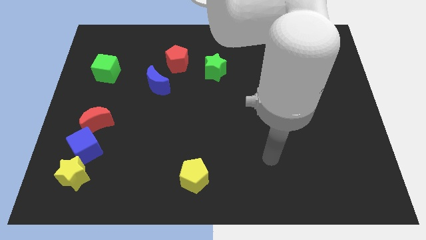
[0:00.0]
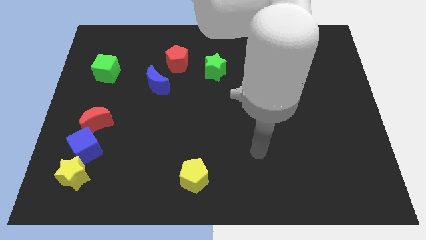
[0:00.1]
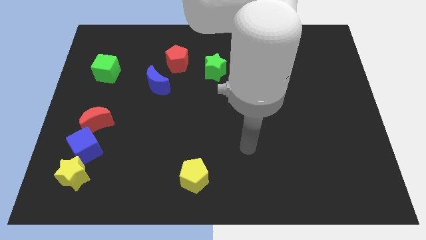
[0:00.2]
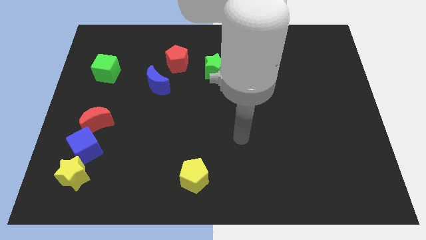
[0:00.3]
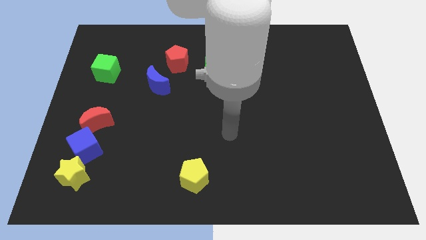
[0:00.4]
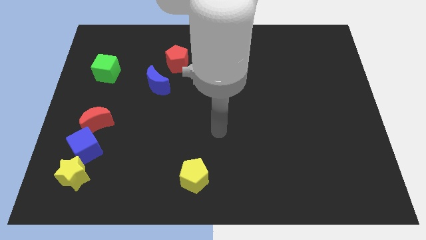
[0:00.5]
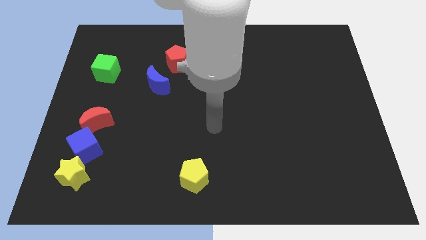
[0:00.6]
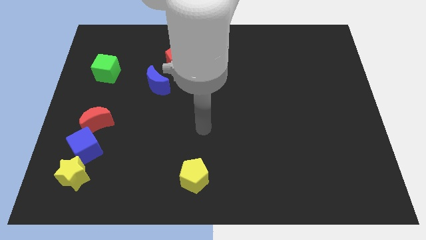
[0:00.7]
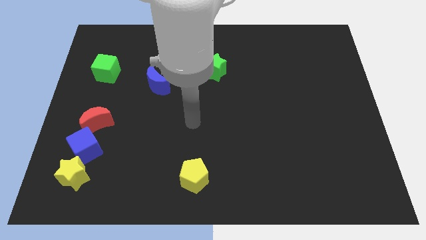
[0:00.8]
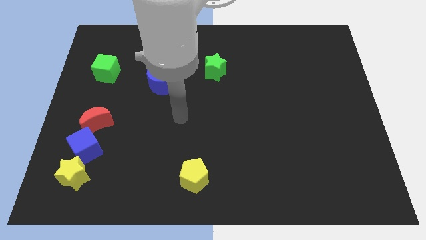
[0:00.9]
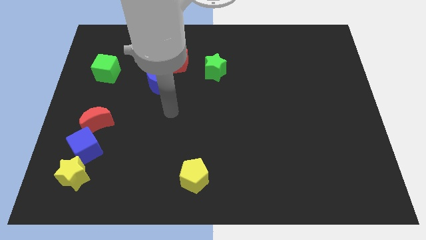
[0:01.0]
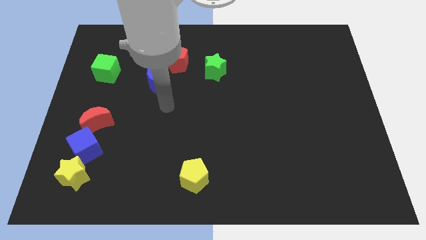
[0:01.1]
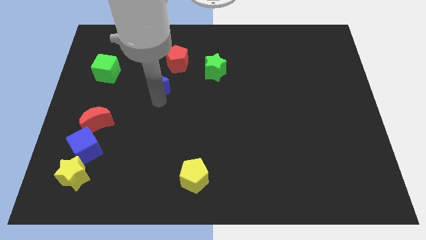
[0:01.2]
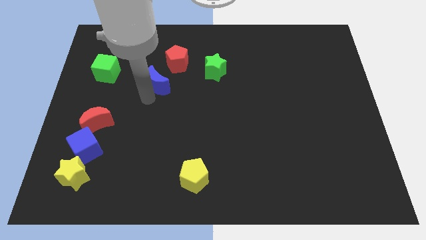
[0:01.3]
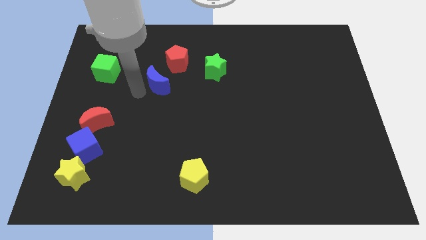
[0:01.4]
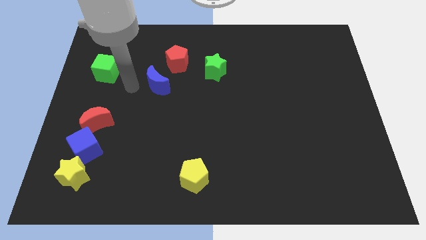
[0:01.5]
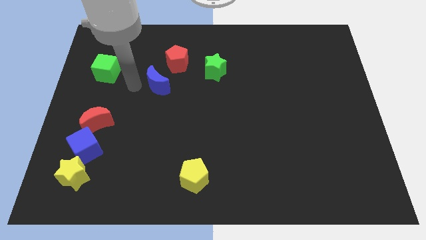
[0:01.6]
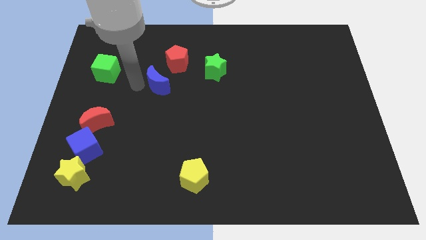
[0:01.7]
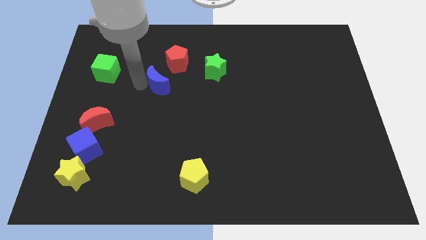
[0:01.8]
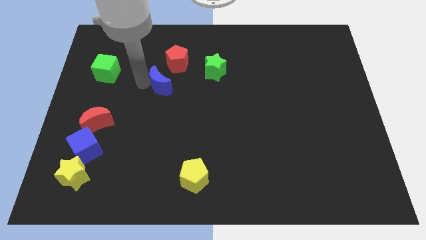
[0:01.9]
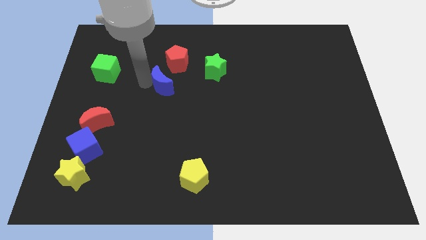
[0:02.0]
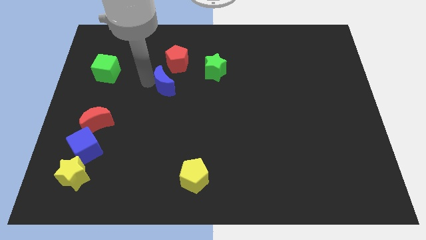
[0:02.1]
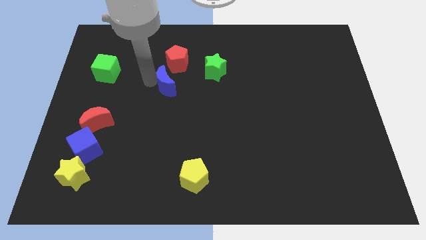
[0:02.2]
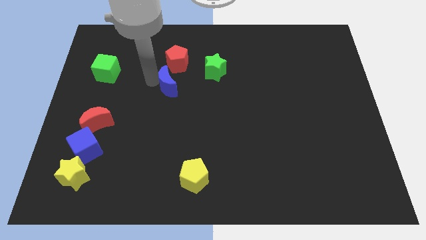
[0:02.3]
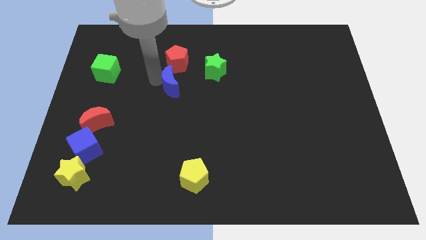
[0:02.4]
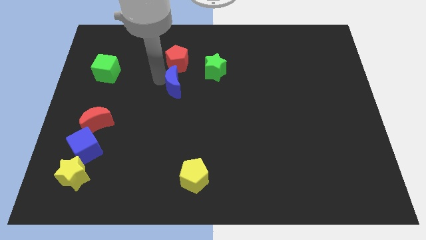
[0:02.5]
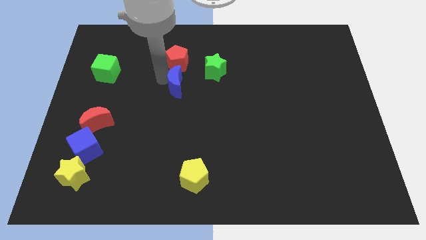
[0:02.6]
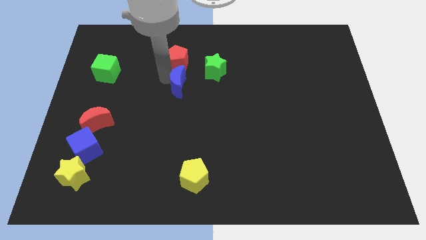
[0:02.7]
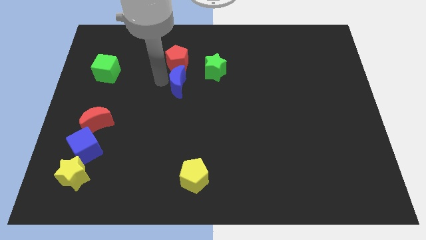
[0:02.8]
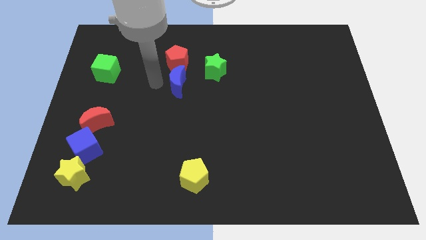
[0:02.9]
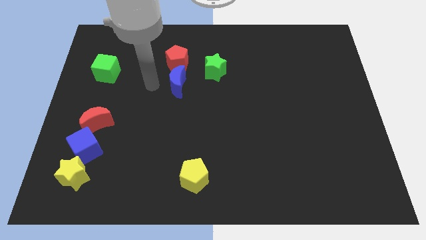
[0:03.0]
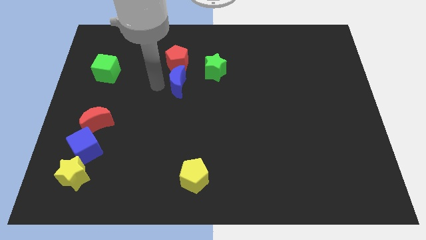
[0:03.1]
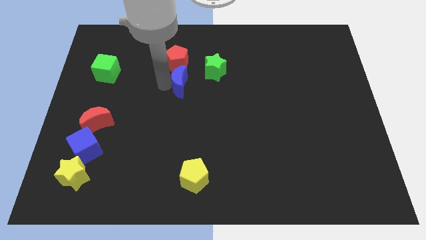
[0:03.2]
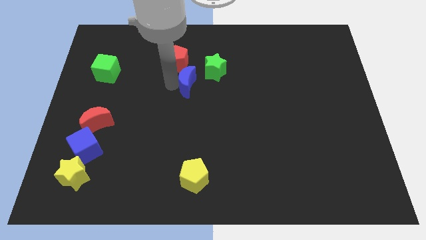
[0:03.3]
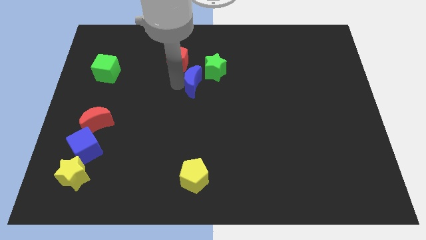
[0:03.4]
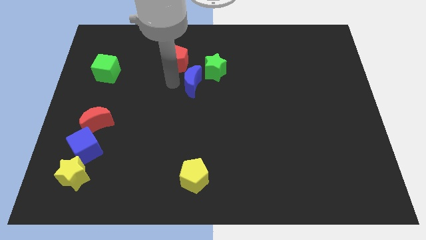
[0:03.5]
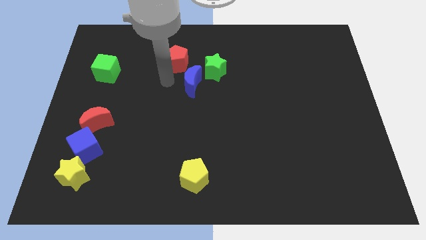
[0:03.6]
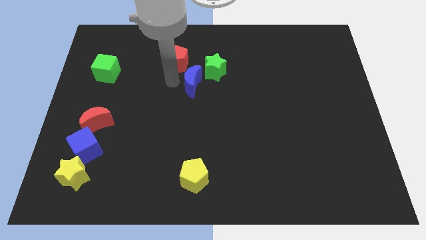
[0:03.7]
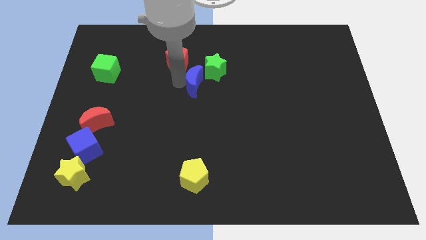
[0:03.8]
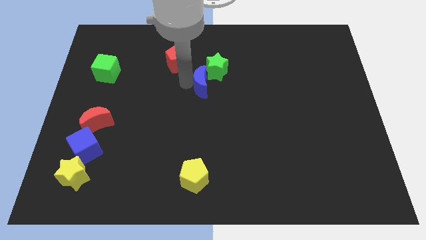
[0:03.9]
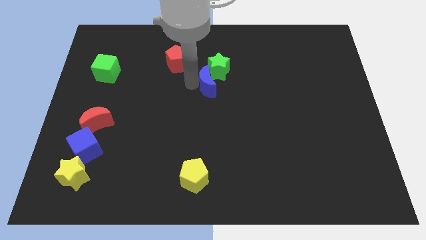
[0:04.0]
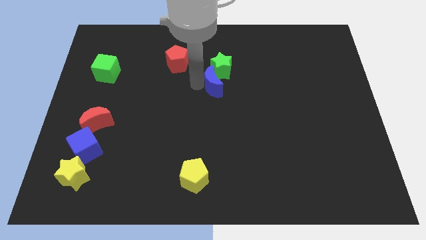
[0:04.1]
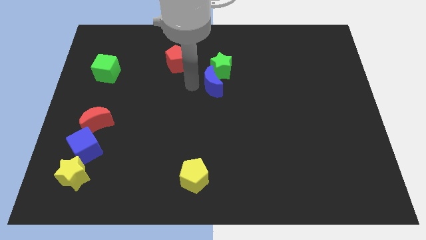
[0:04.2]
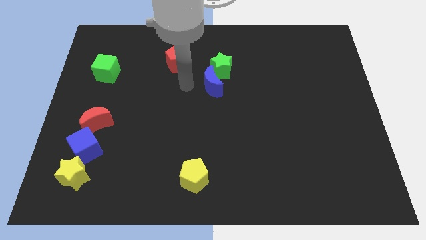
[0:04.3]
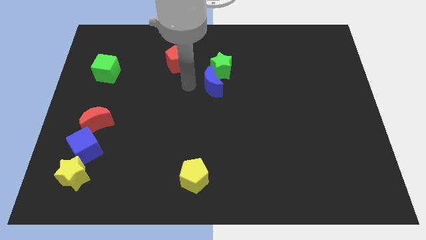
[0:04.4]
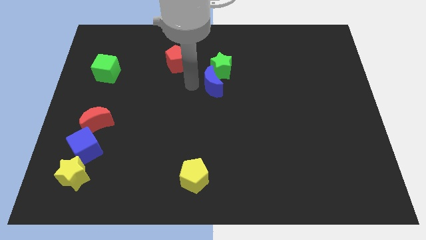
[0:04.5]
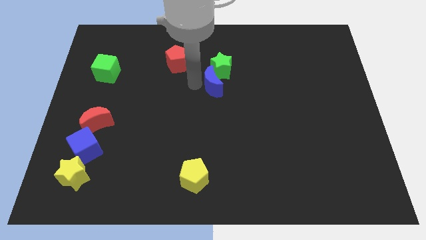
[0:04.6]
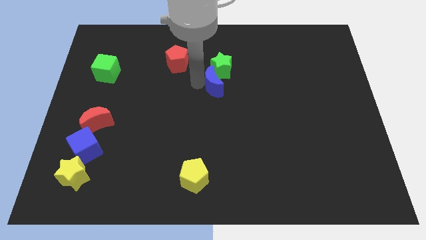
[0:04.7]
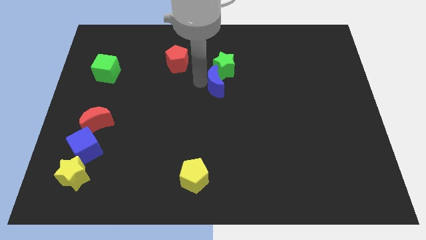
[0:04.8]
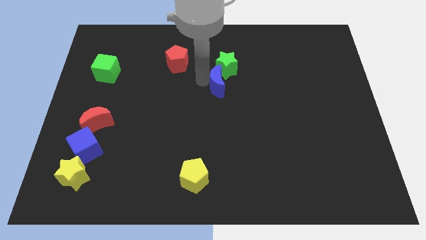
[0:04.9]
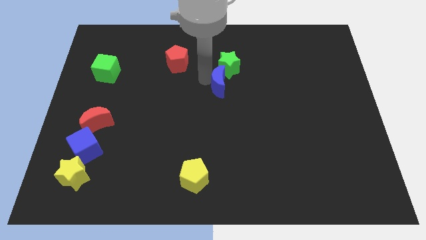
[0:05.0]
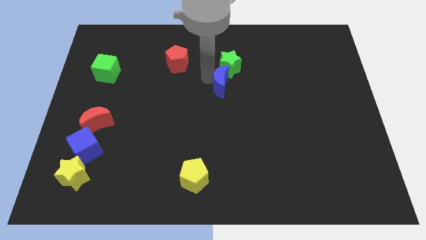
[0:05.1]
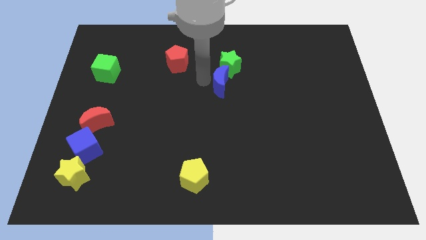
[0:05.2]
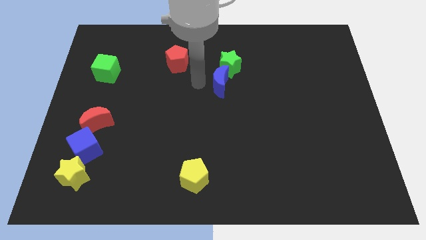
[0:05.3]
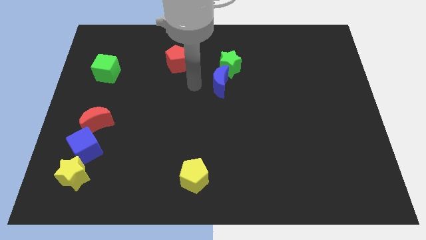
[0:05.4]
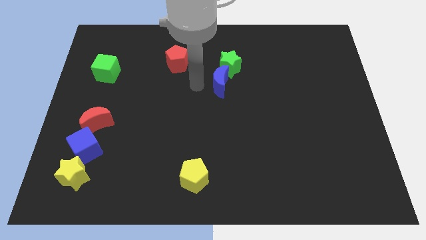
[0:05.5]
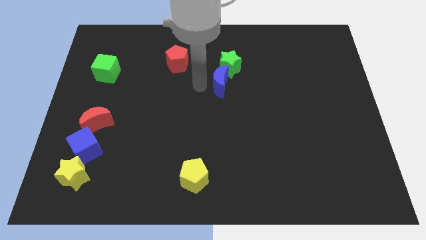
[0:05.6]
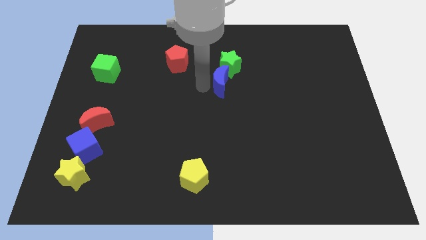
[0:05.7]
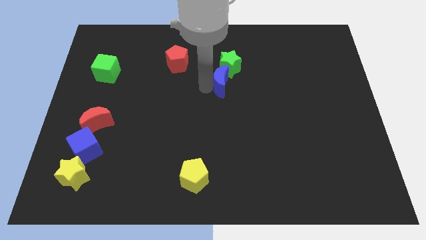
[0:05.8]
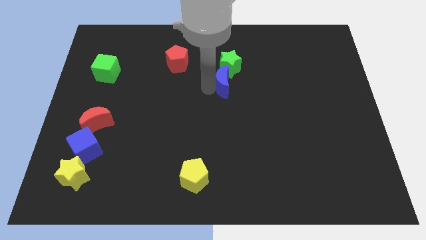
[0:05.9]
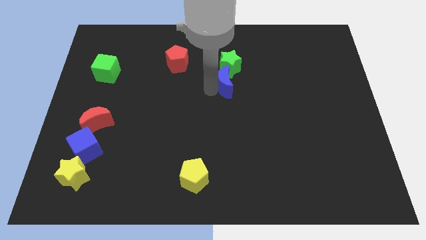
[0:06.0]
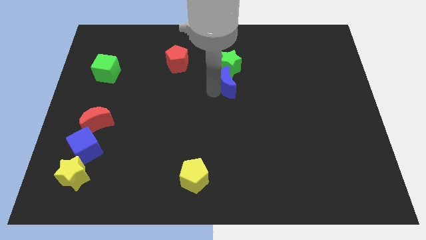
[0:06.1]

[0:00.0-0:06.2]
put the blue moon to the bottom right of the green star

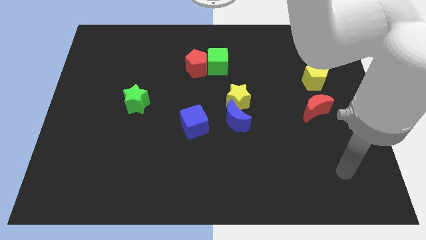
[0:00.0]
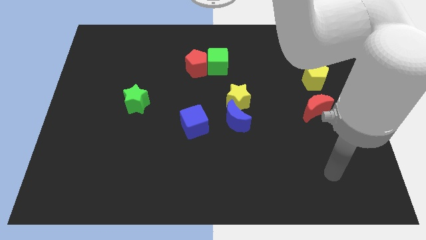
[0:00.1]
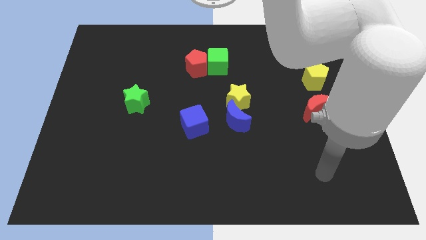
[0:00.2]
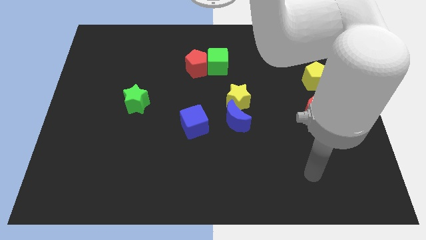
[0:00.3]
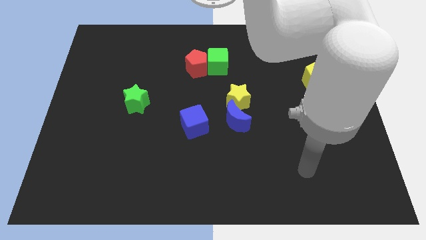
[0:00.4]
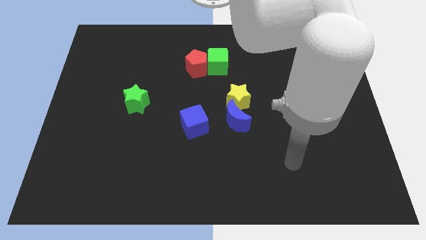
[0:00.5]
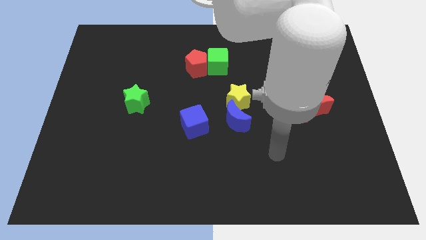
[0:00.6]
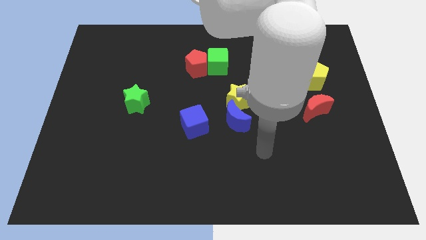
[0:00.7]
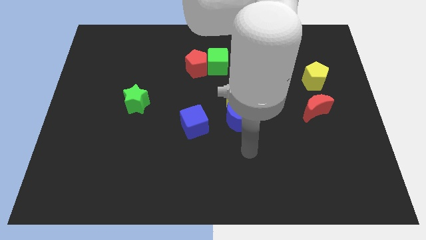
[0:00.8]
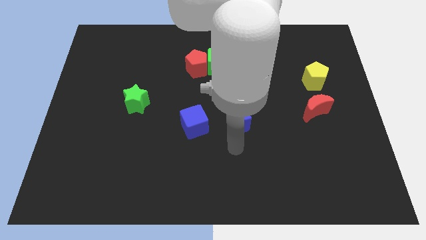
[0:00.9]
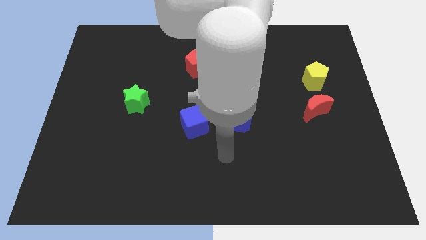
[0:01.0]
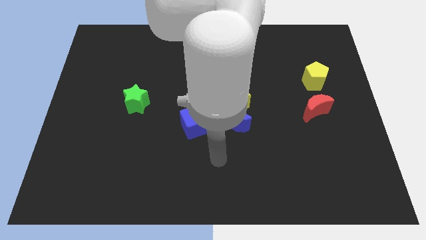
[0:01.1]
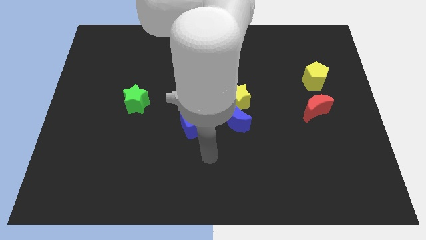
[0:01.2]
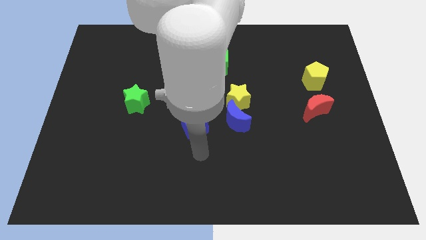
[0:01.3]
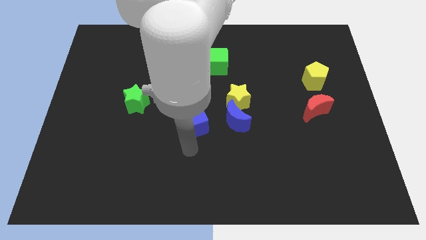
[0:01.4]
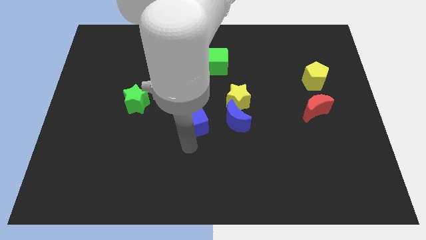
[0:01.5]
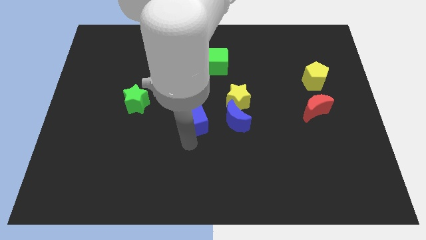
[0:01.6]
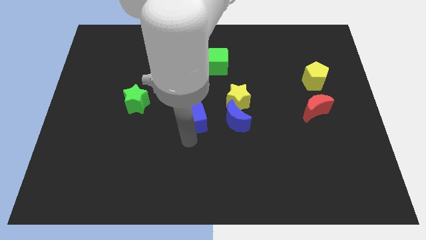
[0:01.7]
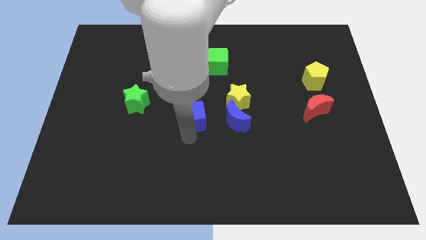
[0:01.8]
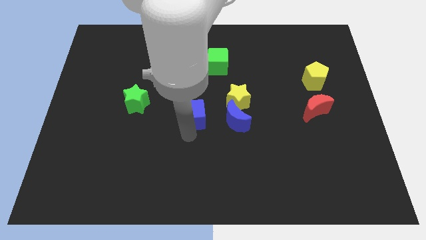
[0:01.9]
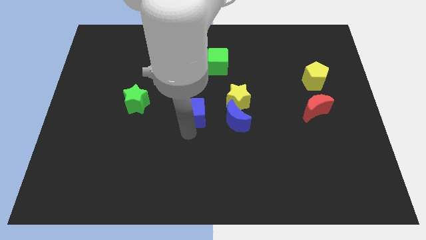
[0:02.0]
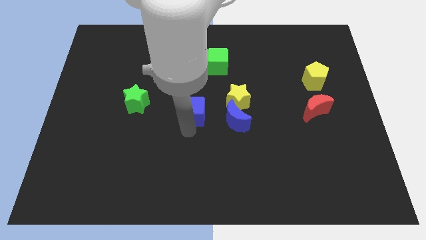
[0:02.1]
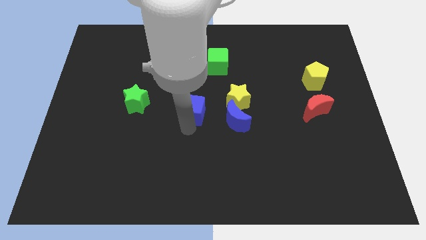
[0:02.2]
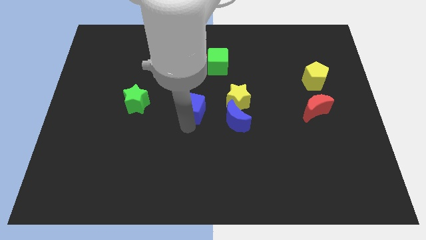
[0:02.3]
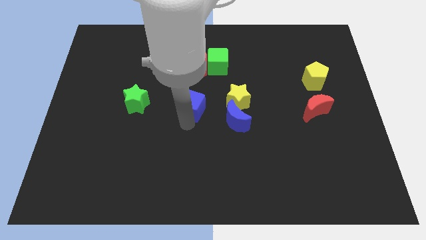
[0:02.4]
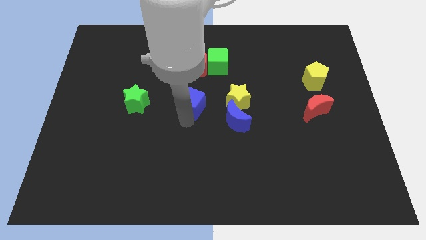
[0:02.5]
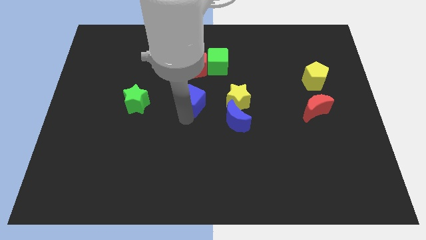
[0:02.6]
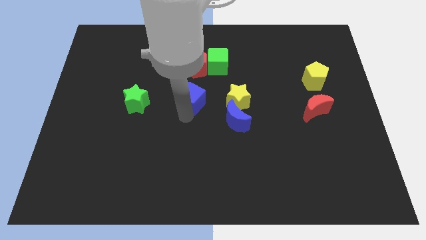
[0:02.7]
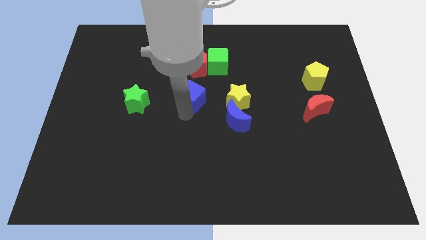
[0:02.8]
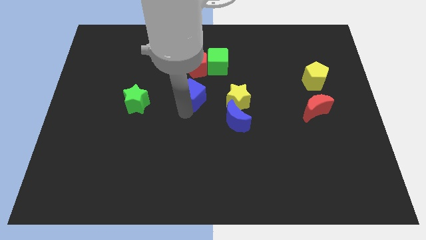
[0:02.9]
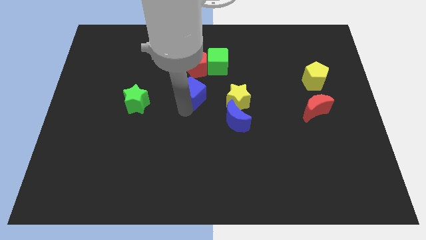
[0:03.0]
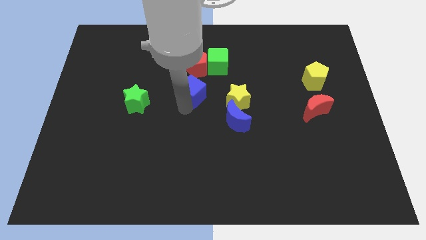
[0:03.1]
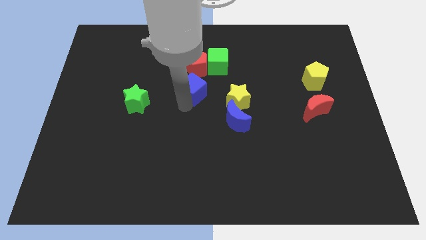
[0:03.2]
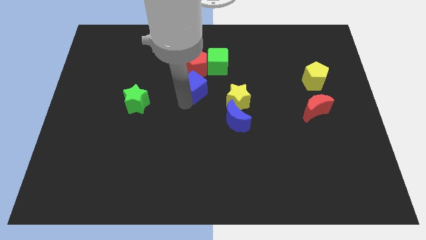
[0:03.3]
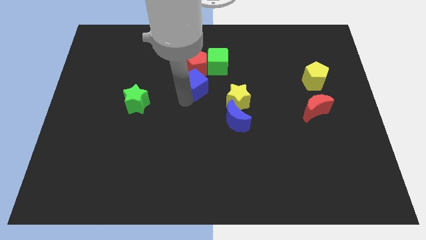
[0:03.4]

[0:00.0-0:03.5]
move the blue cube diagonally up and to the left of the yellow star
